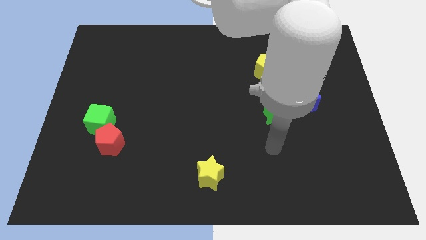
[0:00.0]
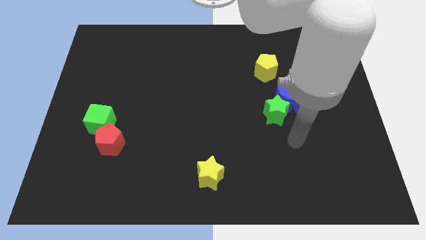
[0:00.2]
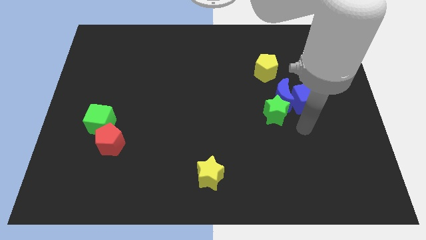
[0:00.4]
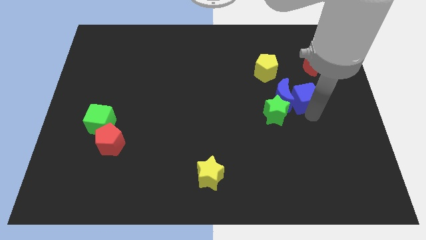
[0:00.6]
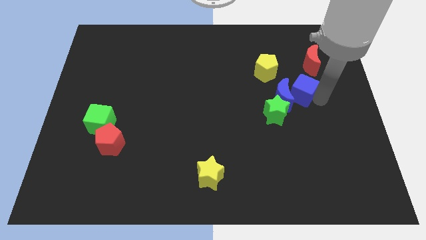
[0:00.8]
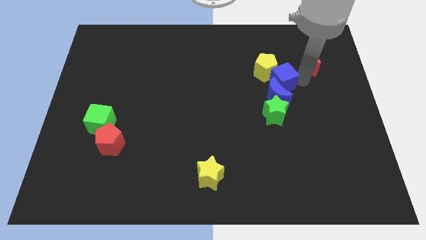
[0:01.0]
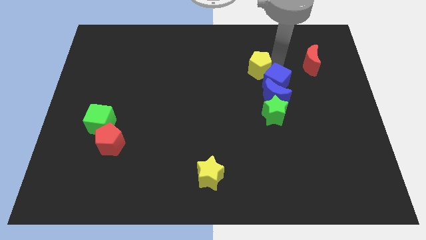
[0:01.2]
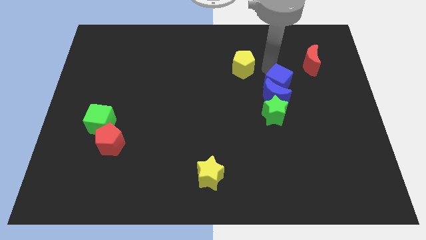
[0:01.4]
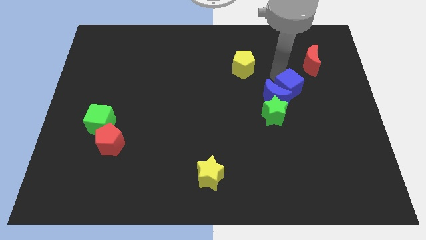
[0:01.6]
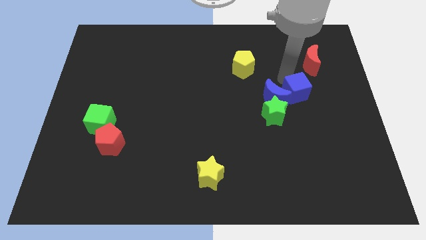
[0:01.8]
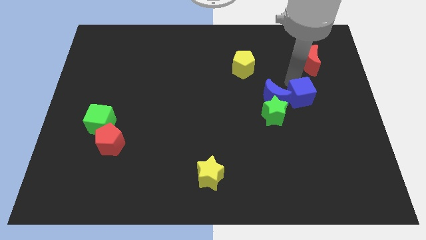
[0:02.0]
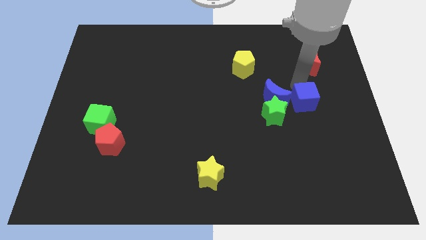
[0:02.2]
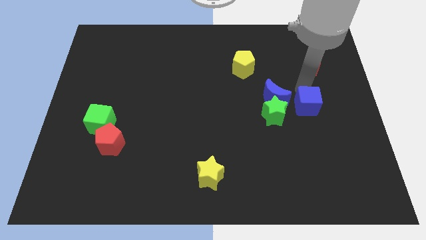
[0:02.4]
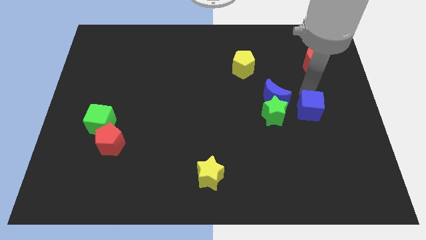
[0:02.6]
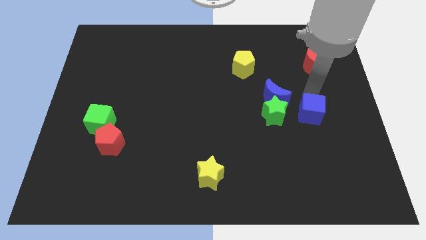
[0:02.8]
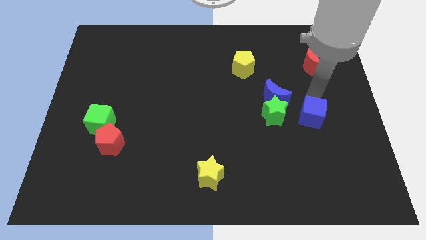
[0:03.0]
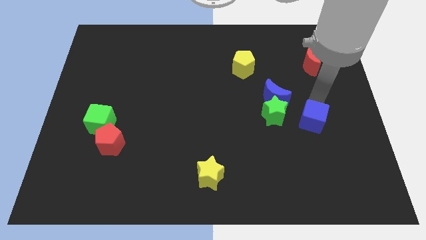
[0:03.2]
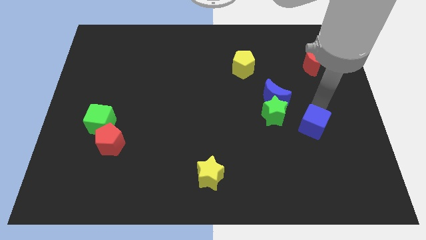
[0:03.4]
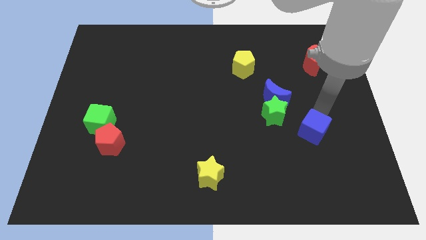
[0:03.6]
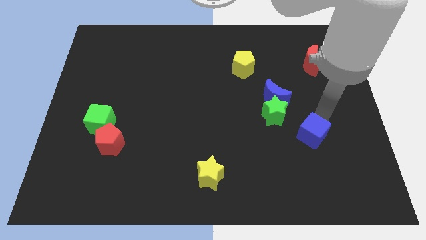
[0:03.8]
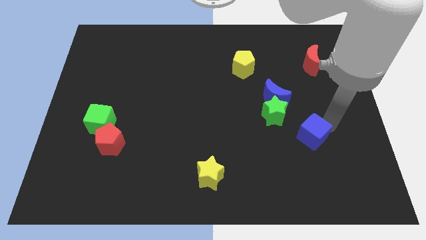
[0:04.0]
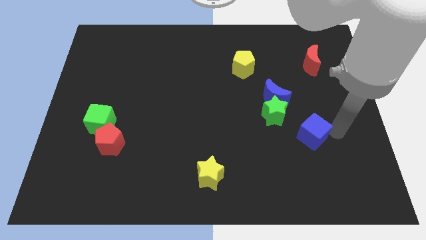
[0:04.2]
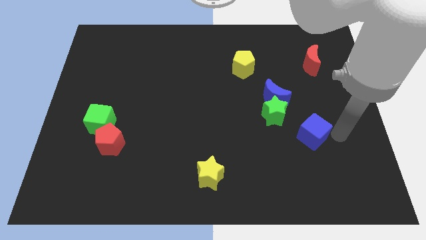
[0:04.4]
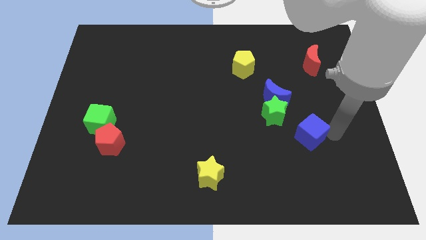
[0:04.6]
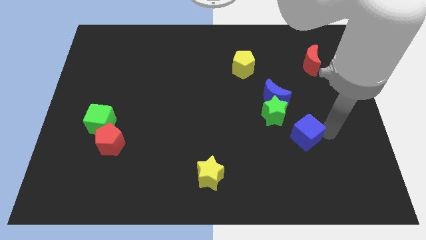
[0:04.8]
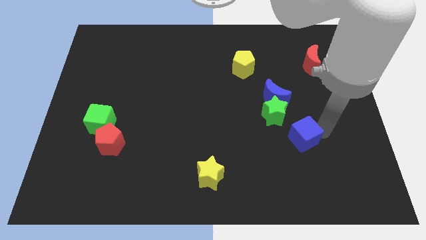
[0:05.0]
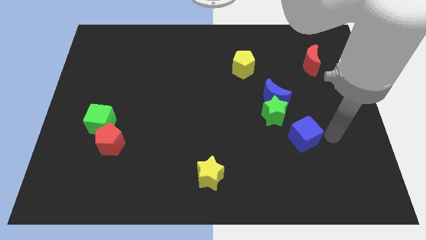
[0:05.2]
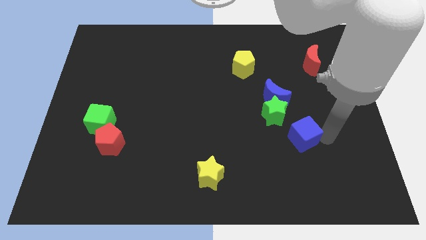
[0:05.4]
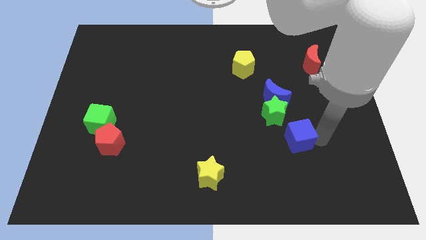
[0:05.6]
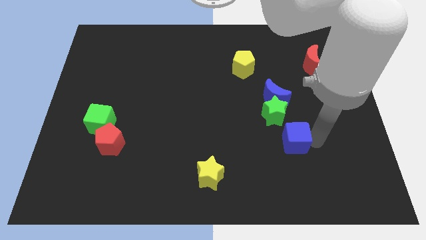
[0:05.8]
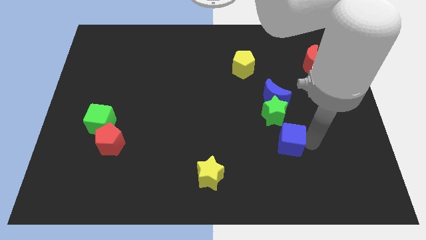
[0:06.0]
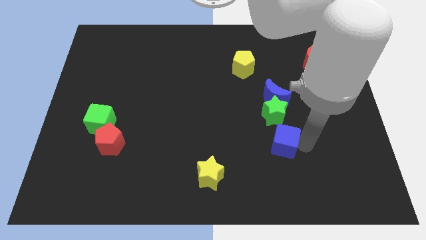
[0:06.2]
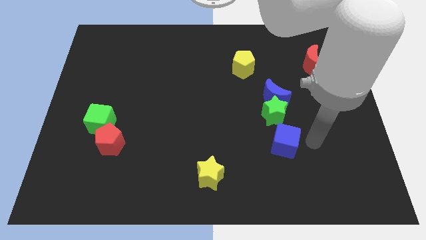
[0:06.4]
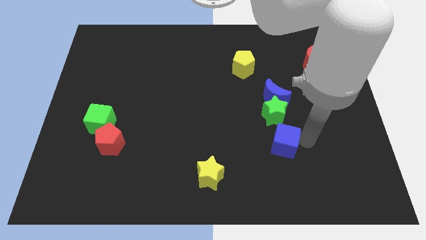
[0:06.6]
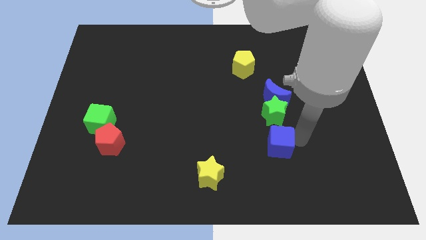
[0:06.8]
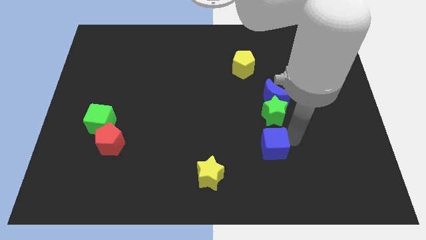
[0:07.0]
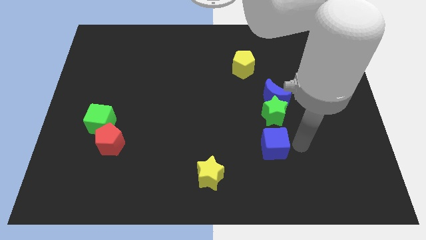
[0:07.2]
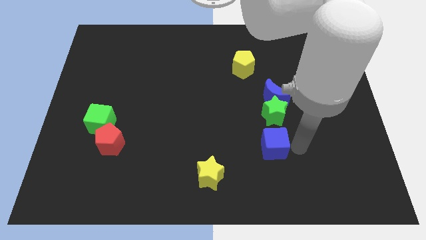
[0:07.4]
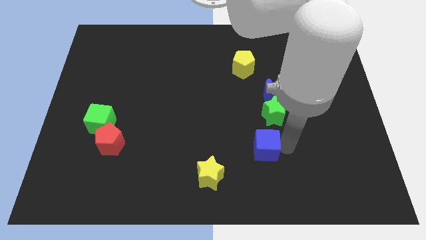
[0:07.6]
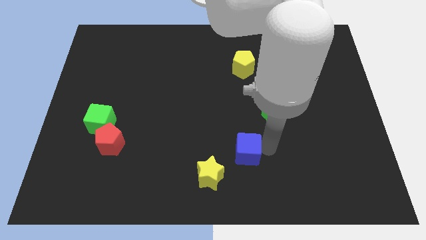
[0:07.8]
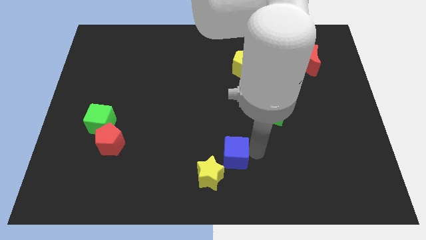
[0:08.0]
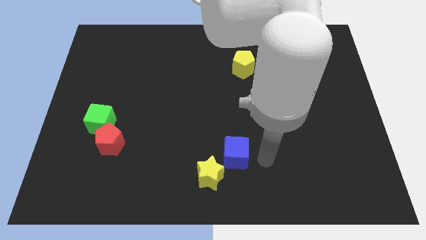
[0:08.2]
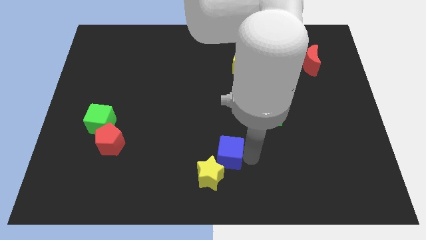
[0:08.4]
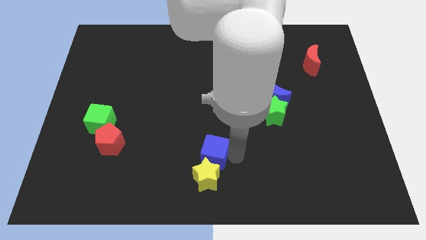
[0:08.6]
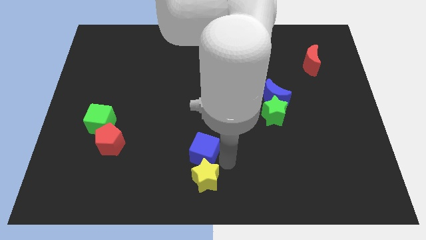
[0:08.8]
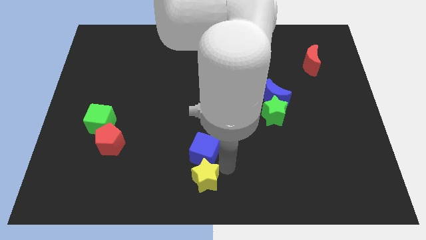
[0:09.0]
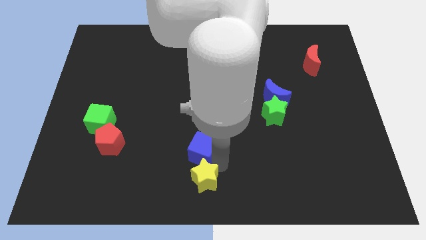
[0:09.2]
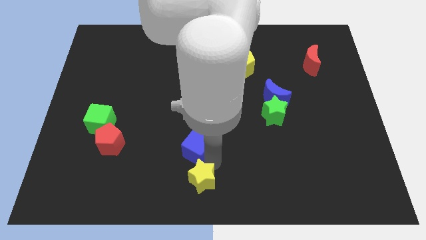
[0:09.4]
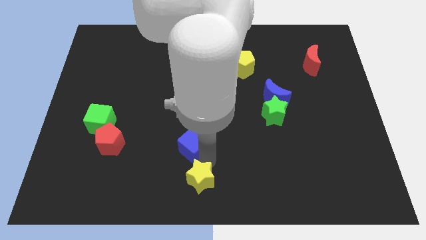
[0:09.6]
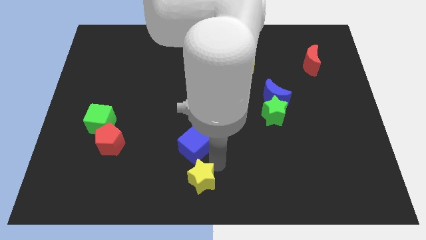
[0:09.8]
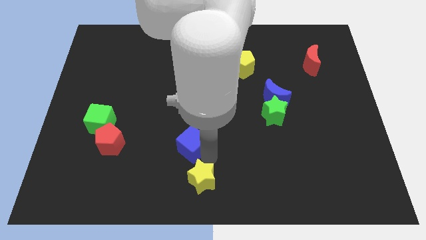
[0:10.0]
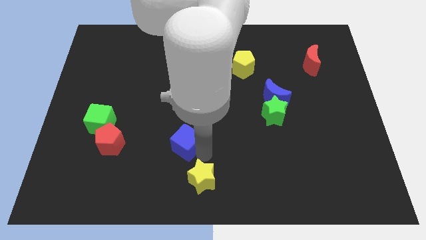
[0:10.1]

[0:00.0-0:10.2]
slide the blue cube right of the red pentagon

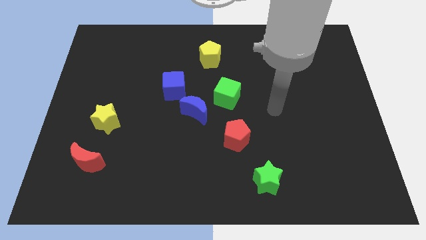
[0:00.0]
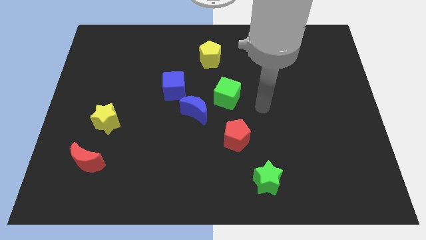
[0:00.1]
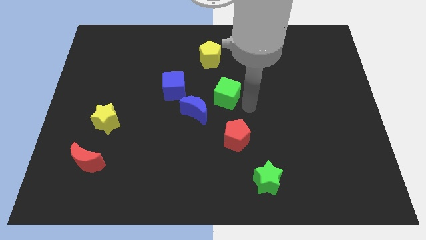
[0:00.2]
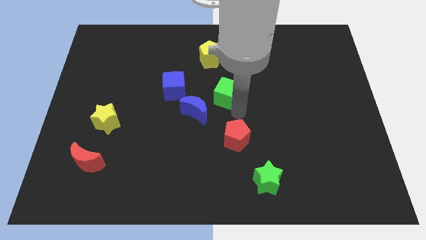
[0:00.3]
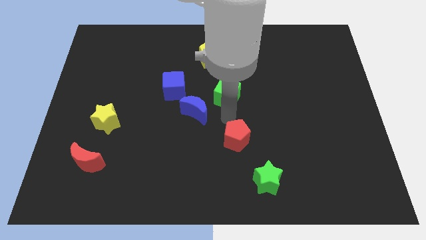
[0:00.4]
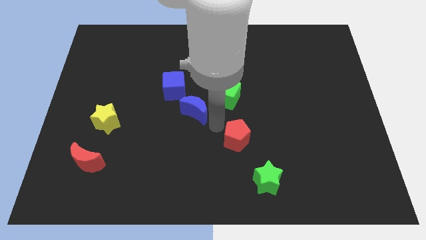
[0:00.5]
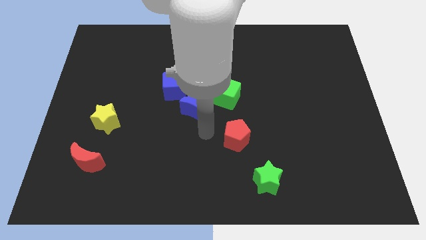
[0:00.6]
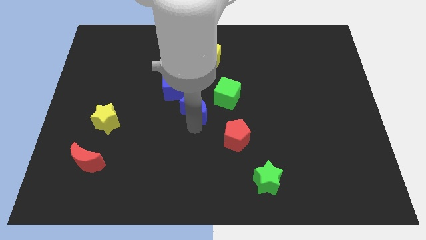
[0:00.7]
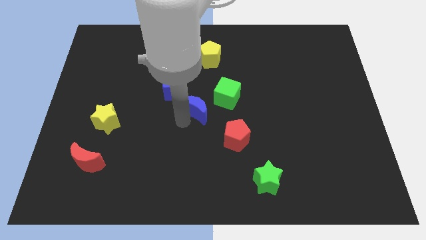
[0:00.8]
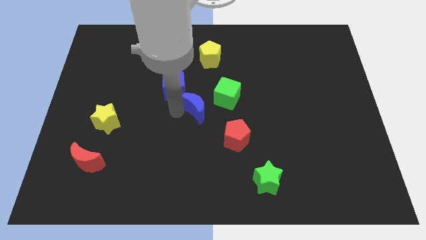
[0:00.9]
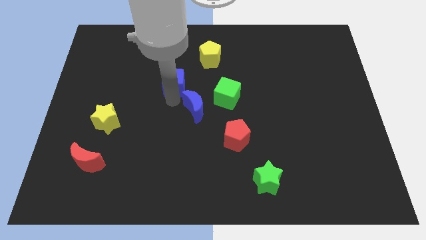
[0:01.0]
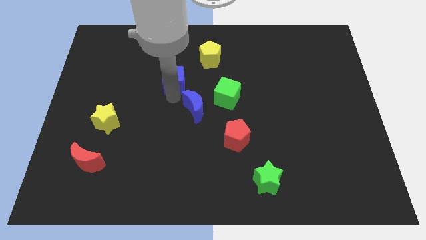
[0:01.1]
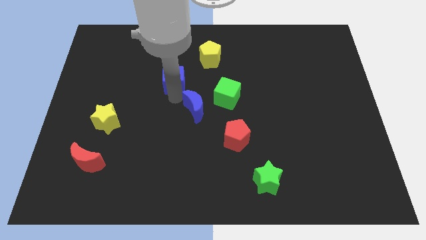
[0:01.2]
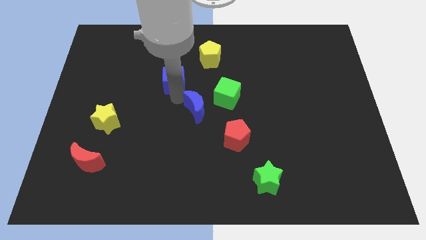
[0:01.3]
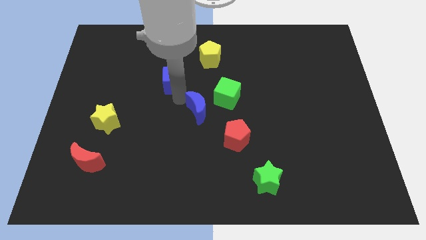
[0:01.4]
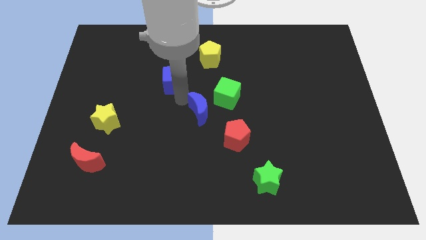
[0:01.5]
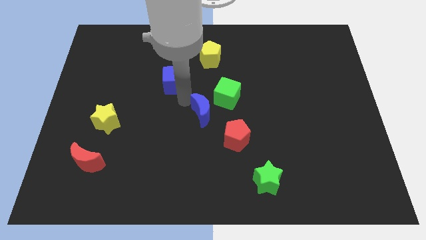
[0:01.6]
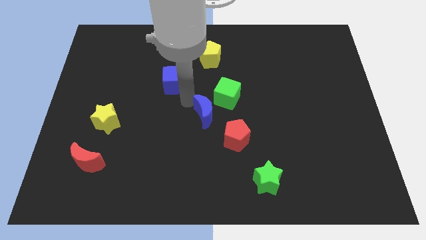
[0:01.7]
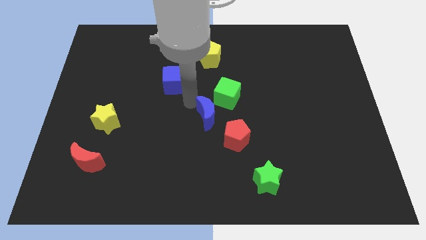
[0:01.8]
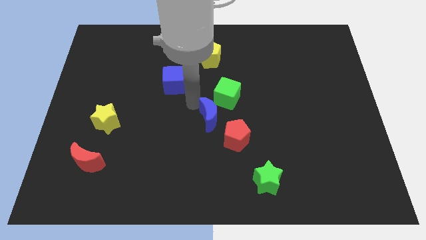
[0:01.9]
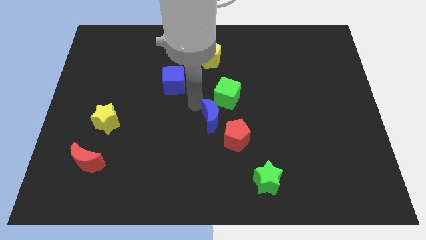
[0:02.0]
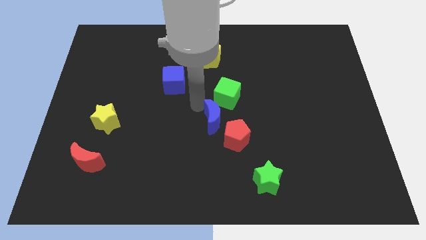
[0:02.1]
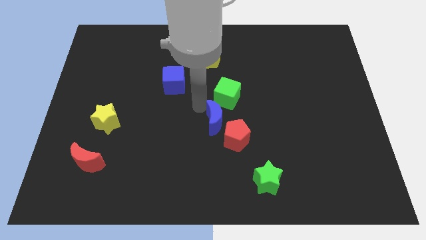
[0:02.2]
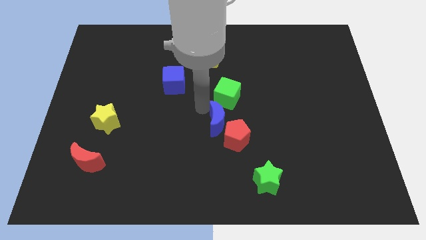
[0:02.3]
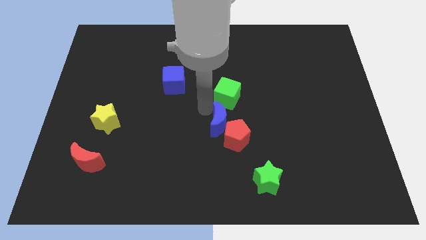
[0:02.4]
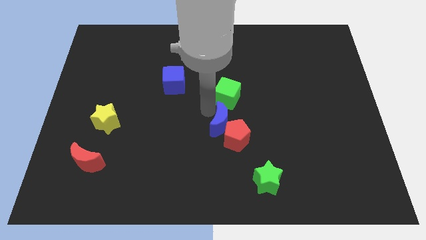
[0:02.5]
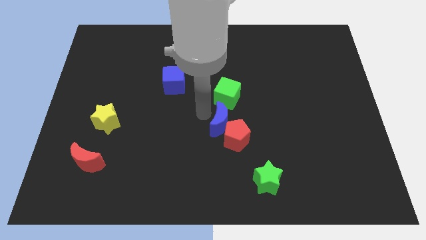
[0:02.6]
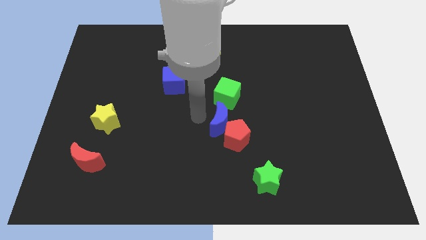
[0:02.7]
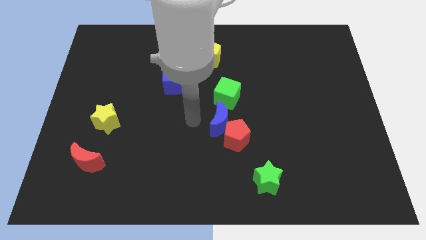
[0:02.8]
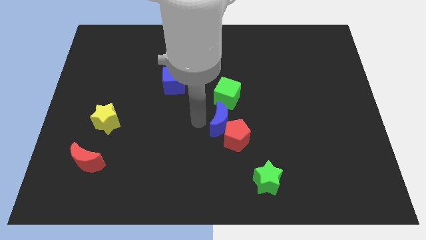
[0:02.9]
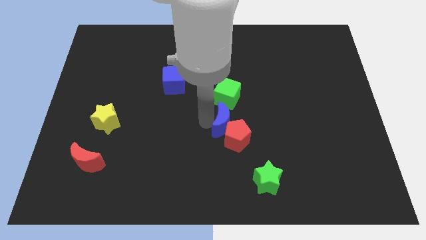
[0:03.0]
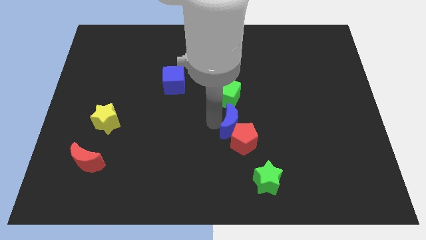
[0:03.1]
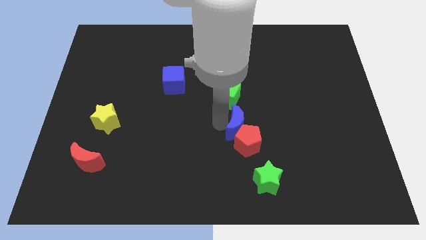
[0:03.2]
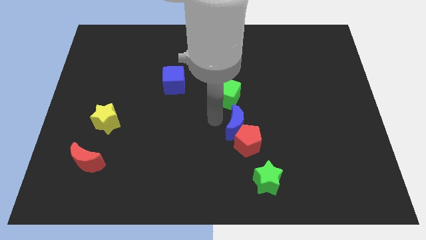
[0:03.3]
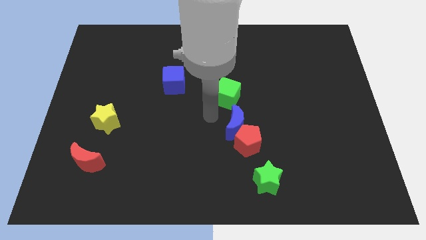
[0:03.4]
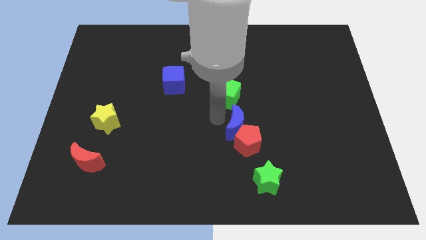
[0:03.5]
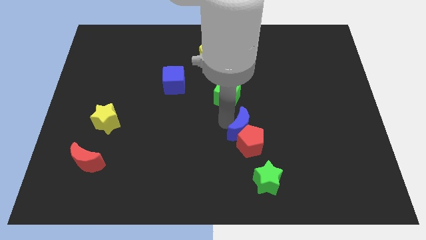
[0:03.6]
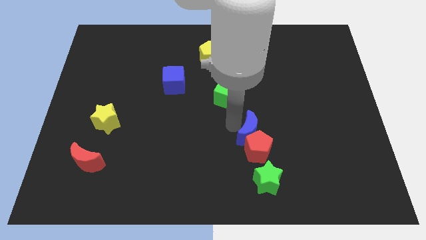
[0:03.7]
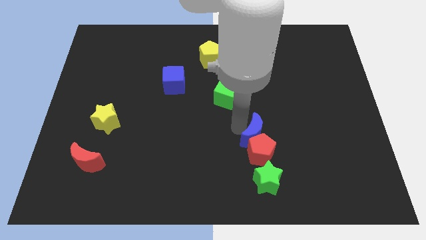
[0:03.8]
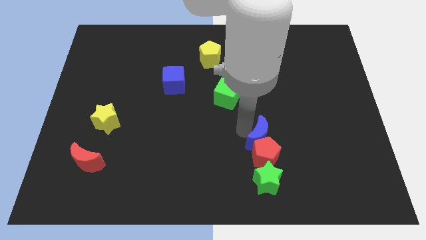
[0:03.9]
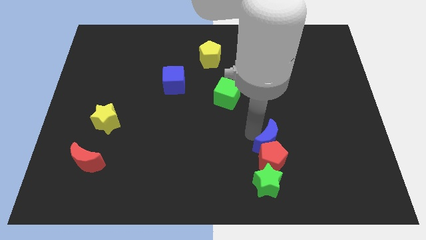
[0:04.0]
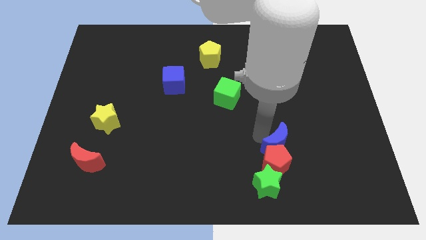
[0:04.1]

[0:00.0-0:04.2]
put the blue moon diagonally up and to the right of the green star
